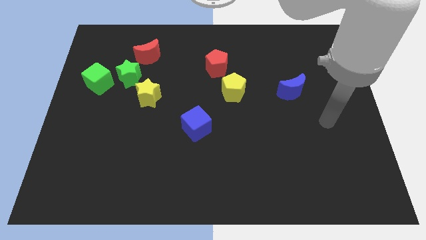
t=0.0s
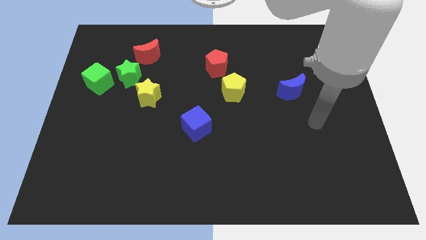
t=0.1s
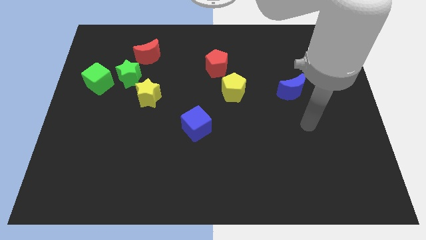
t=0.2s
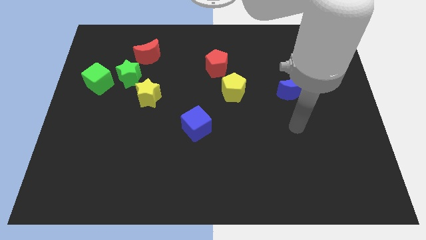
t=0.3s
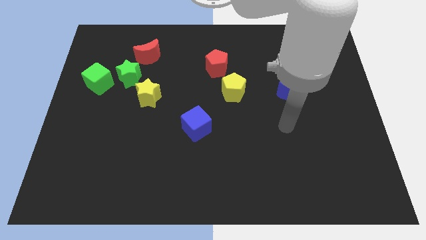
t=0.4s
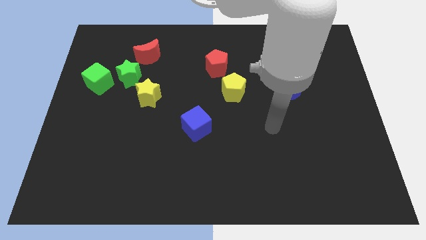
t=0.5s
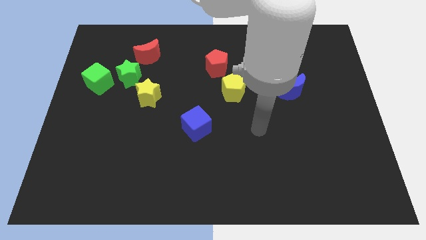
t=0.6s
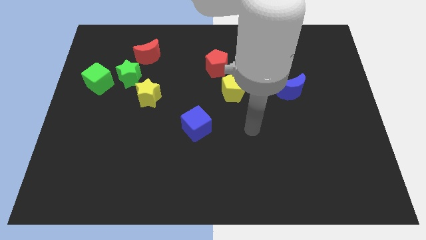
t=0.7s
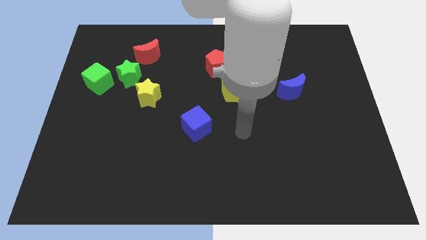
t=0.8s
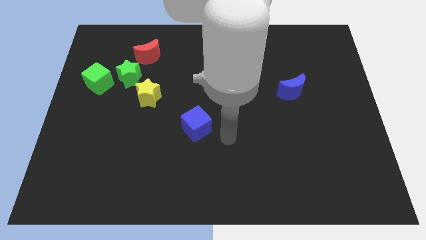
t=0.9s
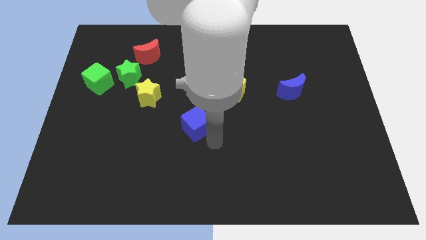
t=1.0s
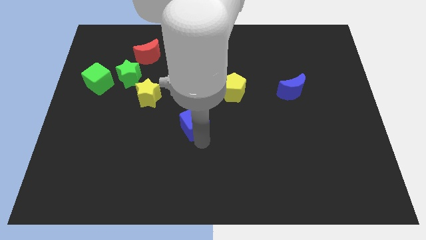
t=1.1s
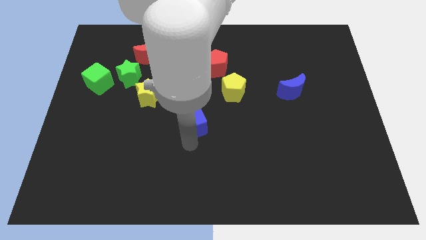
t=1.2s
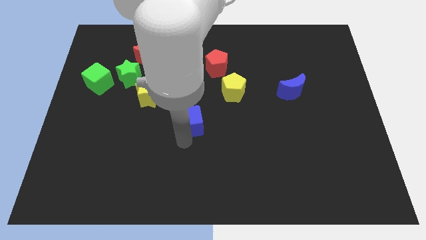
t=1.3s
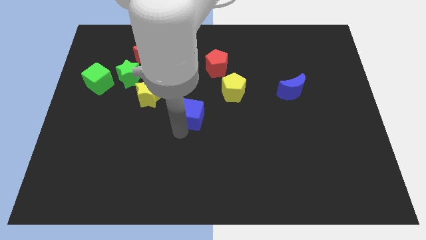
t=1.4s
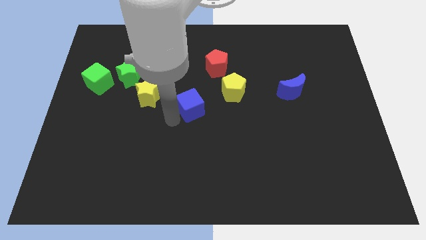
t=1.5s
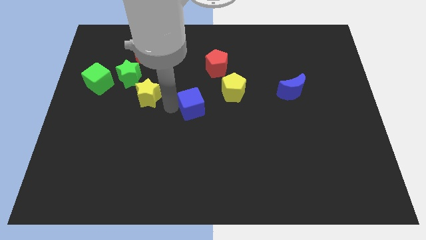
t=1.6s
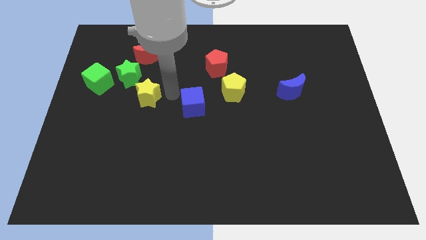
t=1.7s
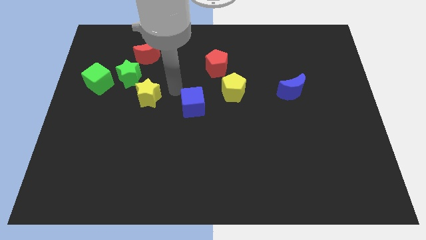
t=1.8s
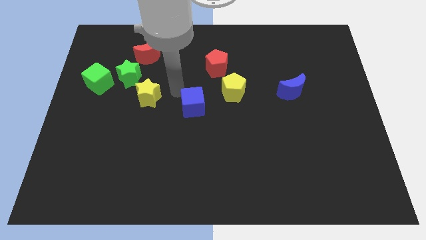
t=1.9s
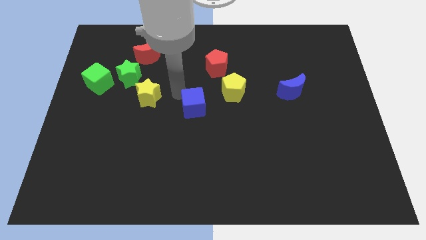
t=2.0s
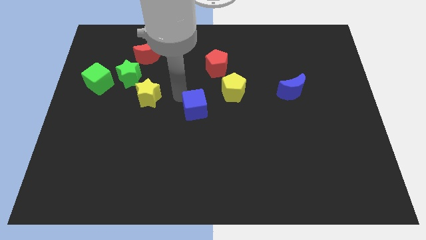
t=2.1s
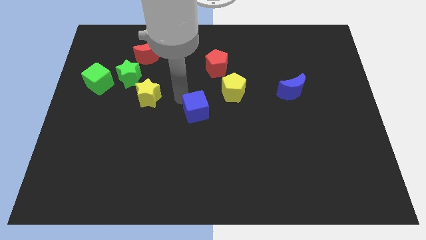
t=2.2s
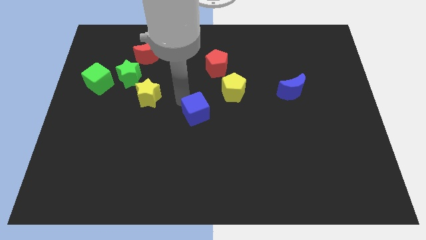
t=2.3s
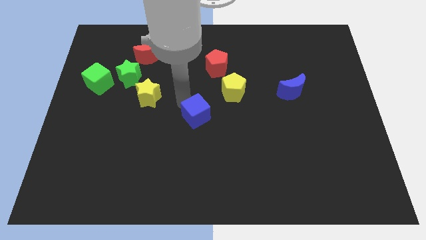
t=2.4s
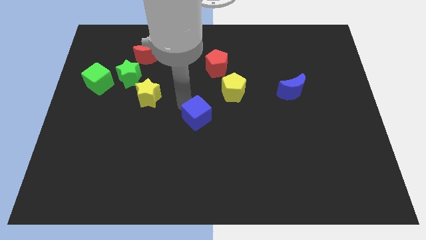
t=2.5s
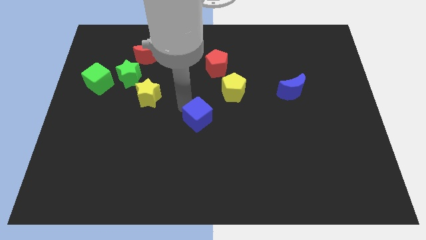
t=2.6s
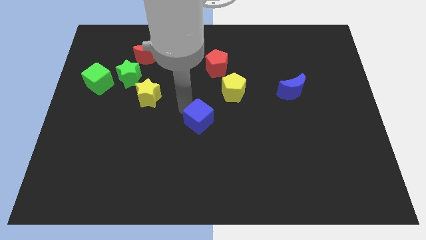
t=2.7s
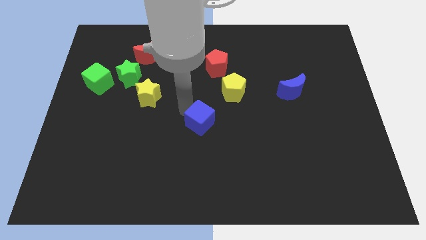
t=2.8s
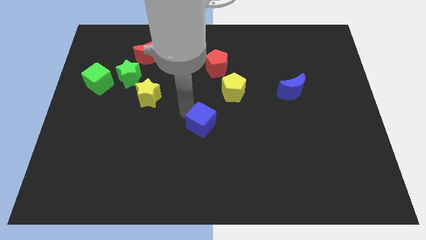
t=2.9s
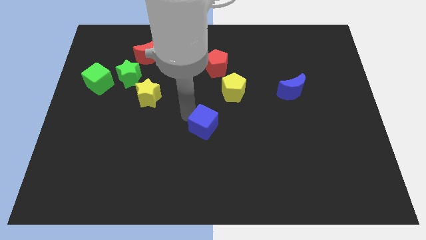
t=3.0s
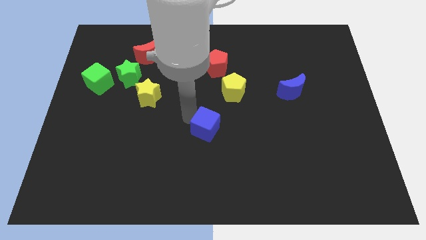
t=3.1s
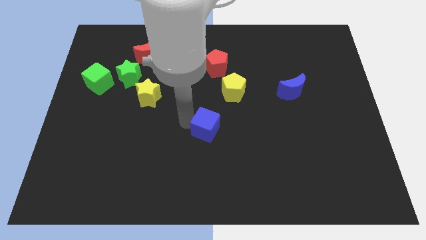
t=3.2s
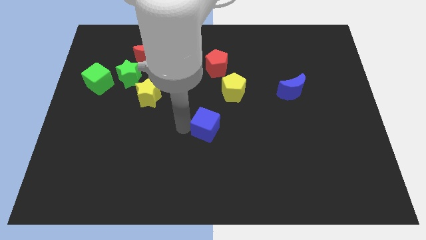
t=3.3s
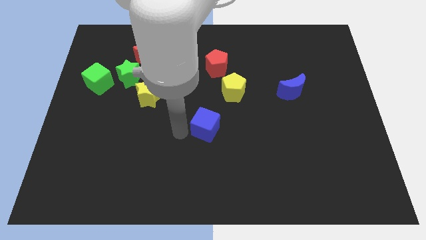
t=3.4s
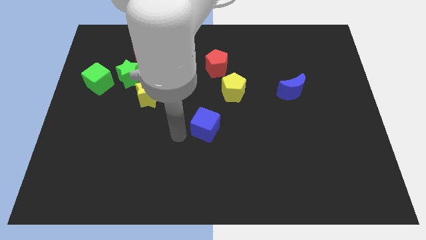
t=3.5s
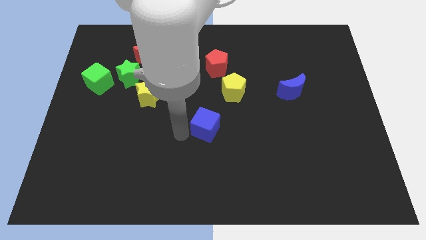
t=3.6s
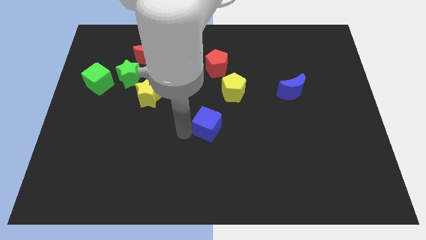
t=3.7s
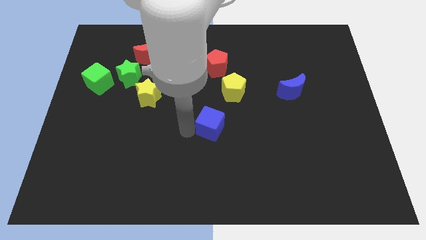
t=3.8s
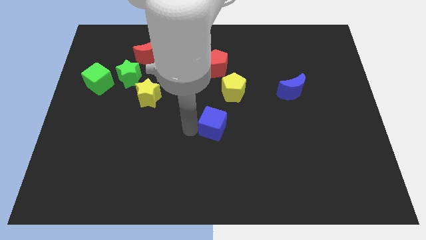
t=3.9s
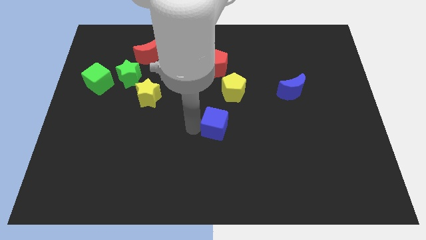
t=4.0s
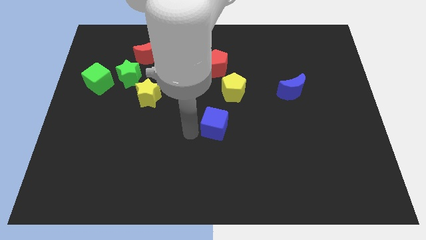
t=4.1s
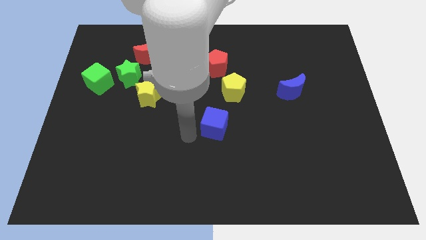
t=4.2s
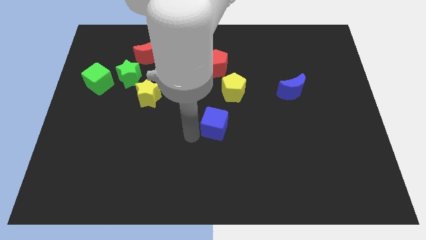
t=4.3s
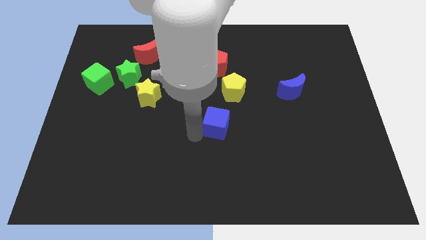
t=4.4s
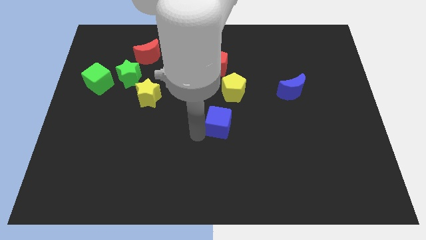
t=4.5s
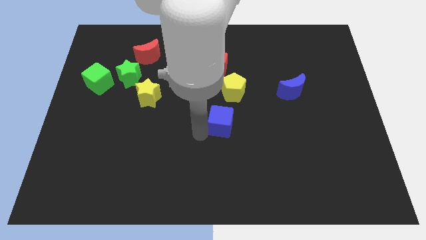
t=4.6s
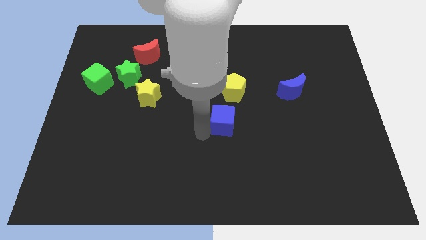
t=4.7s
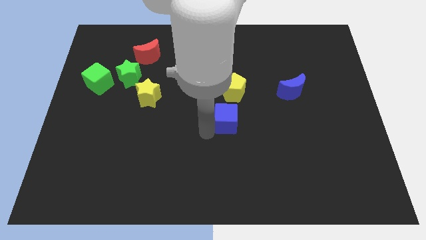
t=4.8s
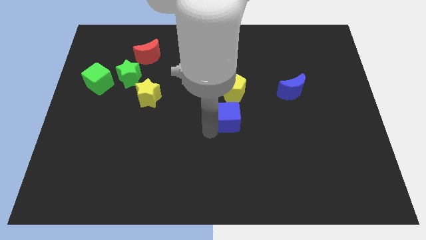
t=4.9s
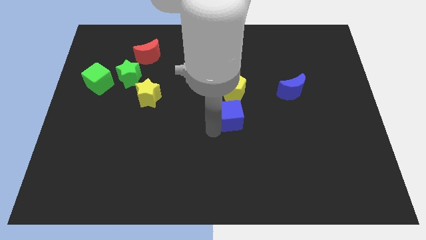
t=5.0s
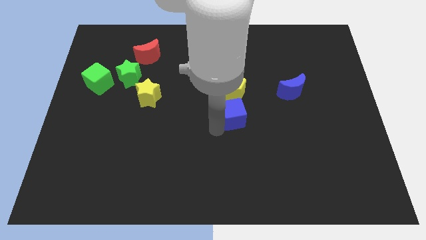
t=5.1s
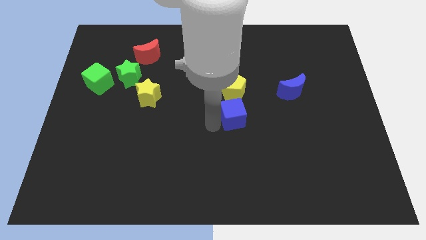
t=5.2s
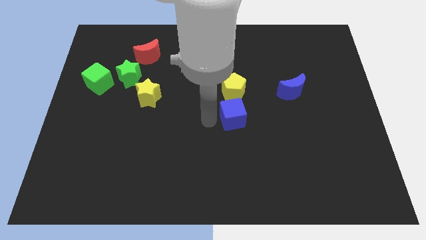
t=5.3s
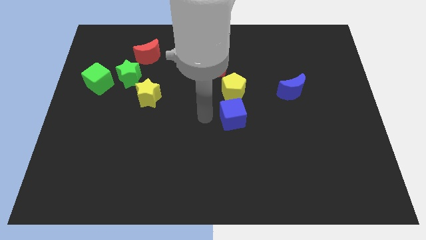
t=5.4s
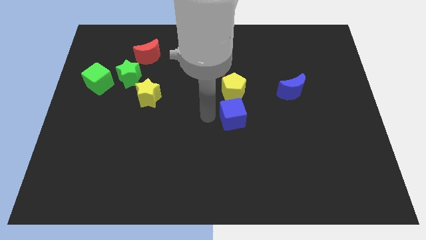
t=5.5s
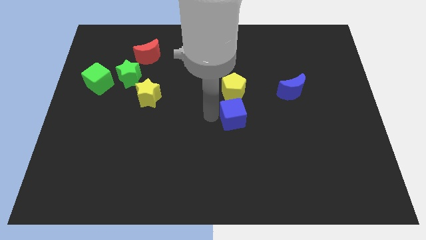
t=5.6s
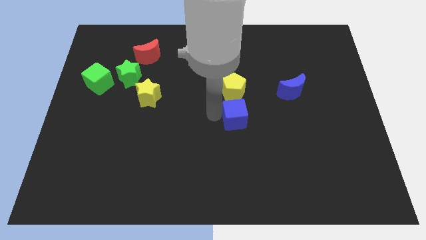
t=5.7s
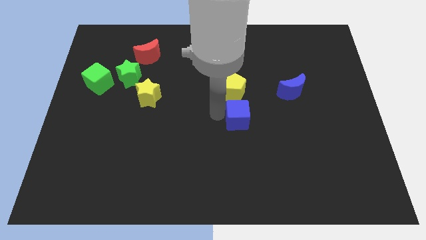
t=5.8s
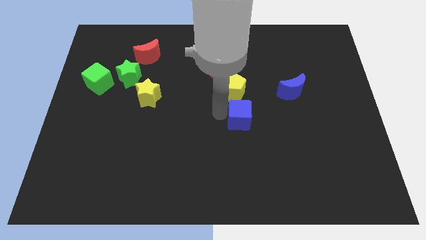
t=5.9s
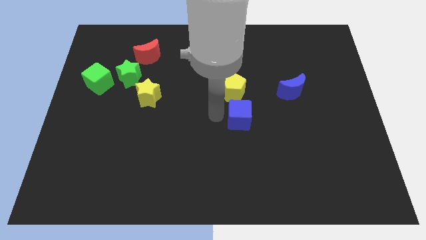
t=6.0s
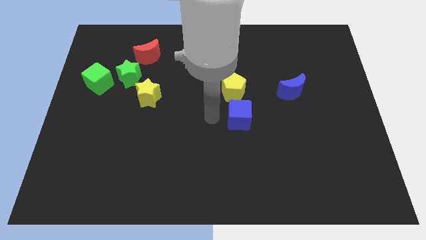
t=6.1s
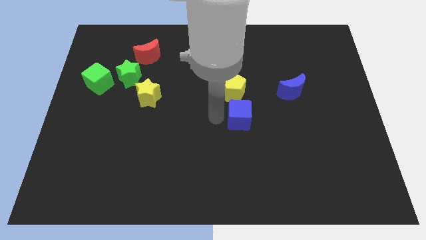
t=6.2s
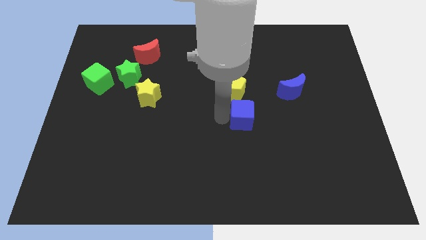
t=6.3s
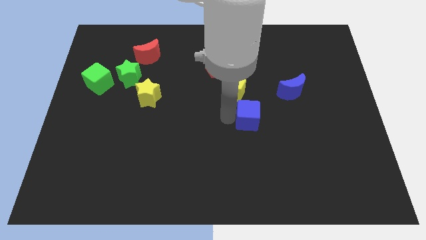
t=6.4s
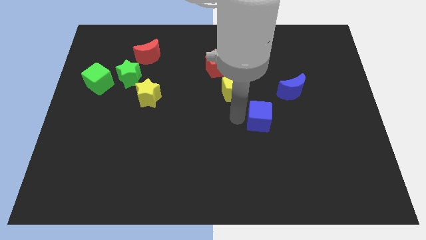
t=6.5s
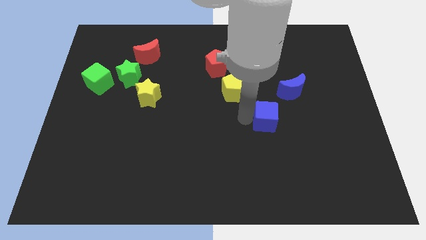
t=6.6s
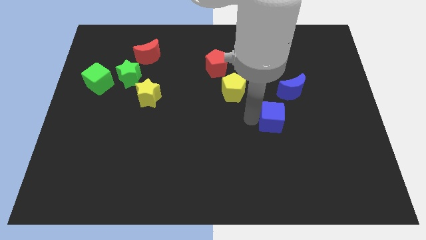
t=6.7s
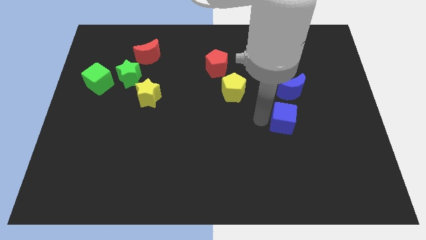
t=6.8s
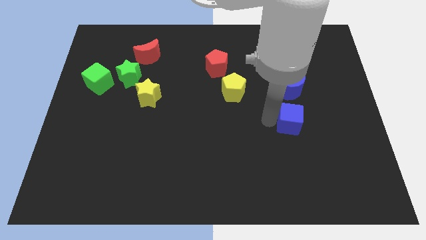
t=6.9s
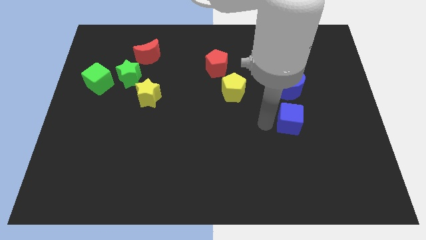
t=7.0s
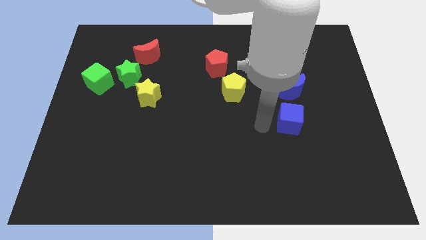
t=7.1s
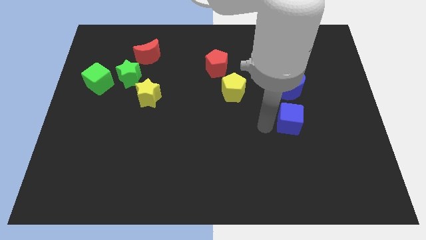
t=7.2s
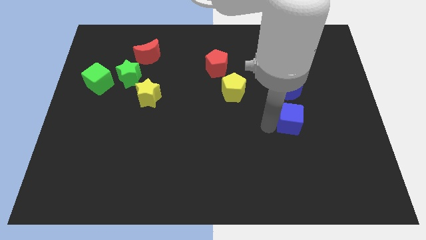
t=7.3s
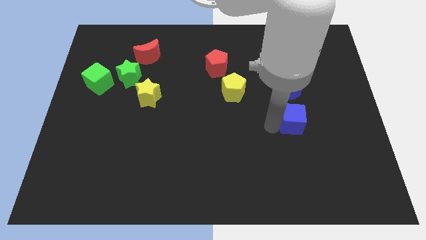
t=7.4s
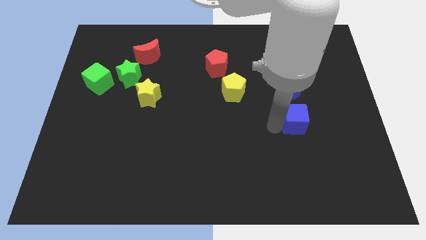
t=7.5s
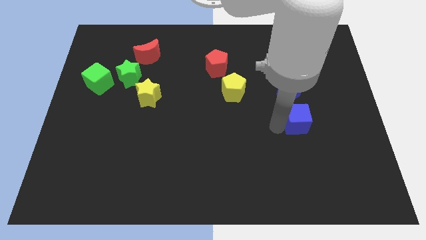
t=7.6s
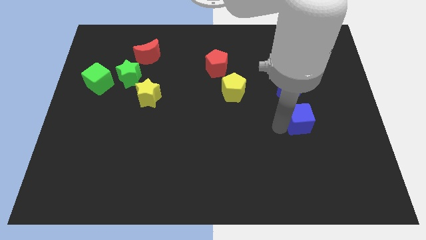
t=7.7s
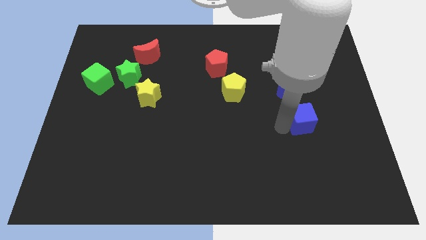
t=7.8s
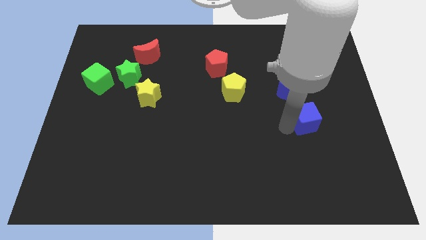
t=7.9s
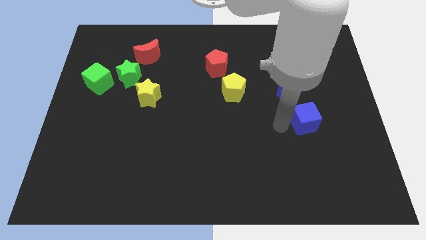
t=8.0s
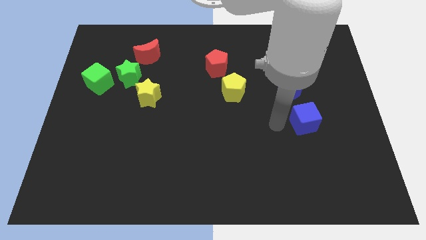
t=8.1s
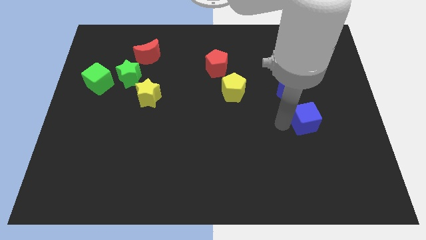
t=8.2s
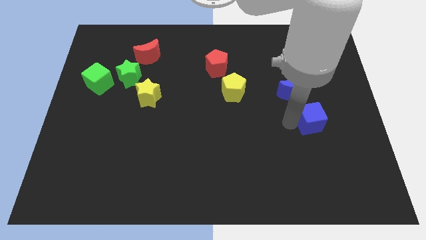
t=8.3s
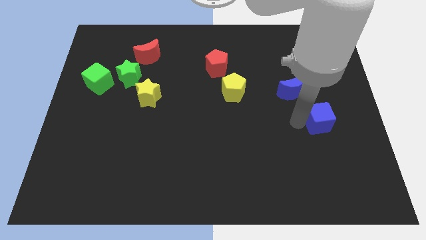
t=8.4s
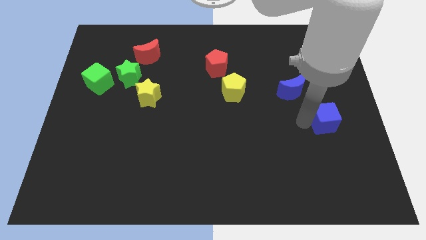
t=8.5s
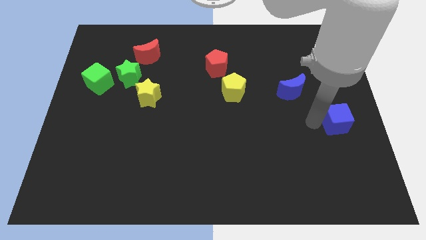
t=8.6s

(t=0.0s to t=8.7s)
move the blue cube to the center right
